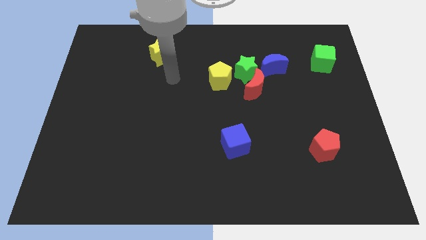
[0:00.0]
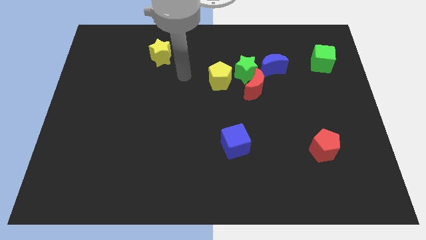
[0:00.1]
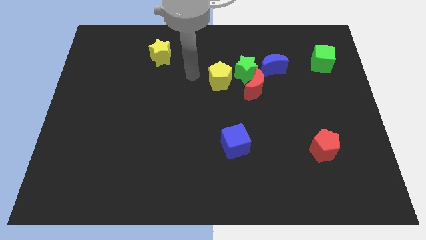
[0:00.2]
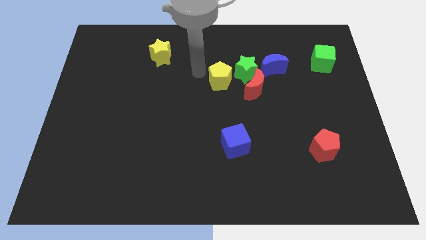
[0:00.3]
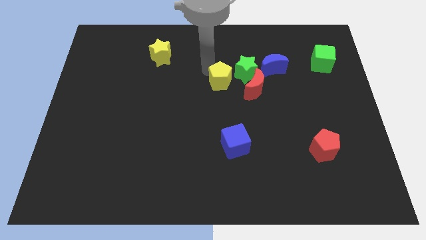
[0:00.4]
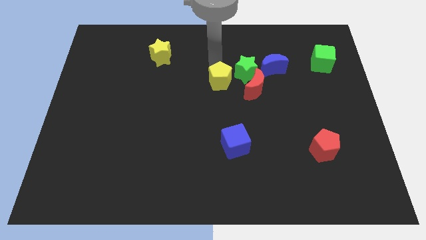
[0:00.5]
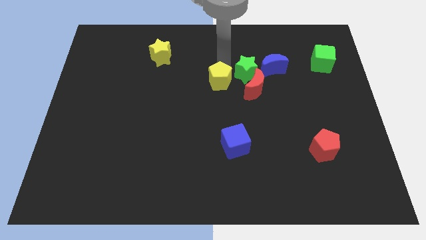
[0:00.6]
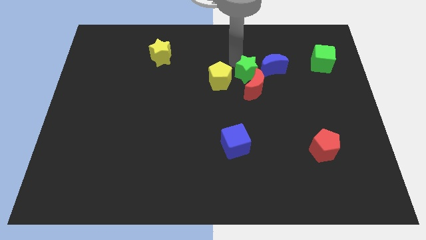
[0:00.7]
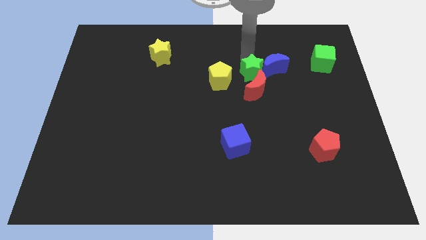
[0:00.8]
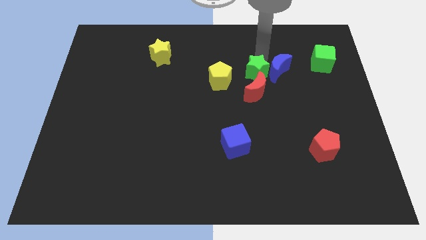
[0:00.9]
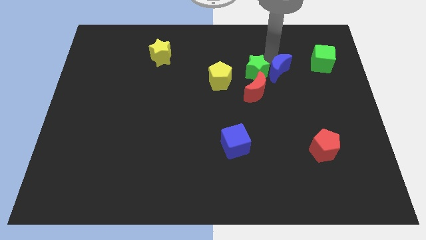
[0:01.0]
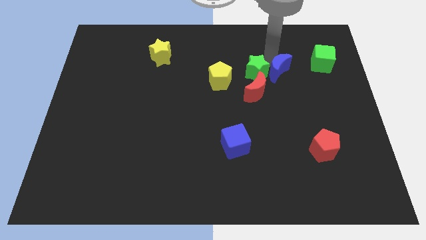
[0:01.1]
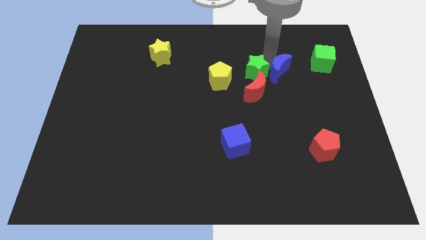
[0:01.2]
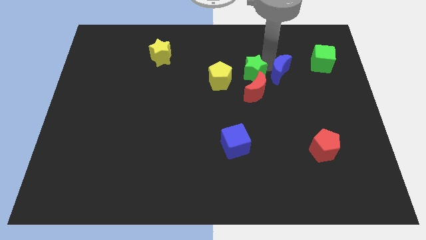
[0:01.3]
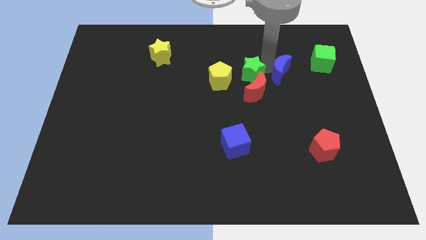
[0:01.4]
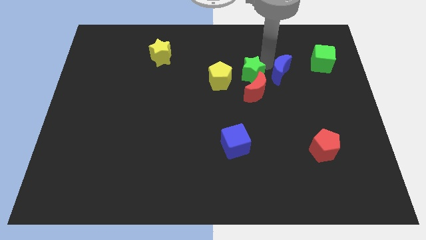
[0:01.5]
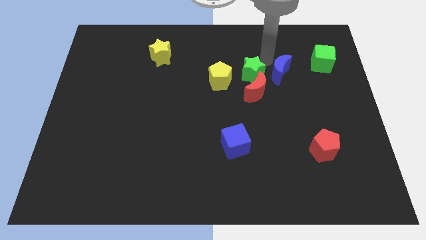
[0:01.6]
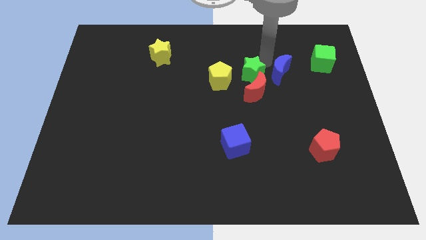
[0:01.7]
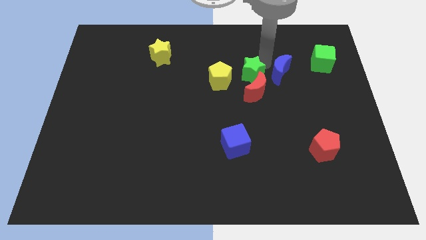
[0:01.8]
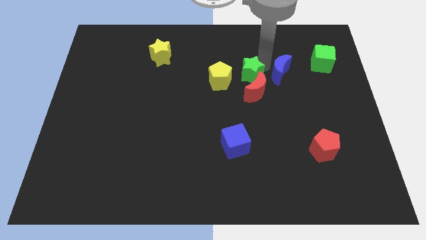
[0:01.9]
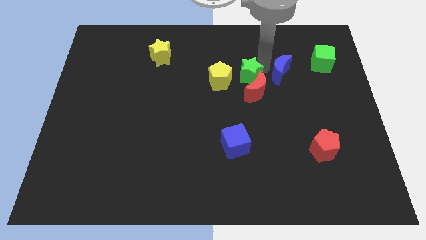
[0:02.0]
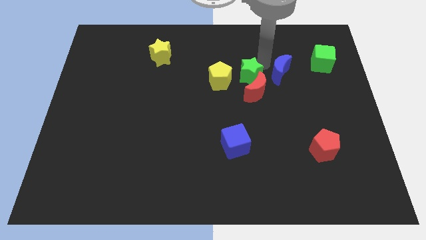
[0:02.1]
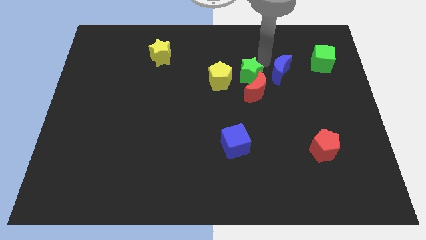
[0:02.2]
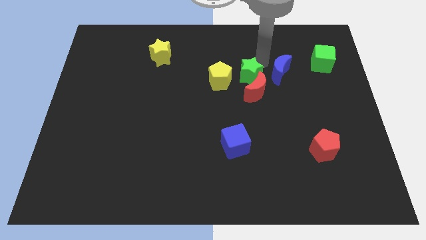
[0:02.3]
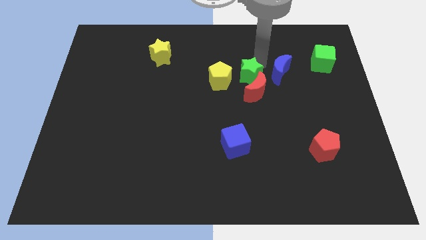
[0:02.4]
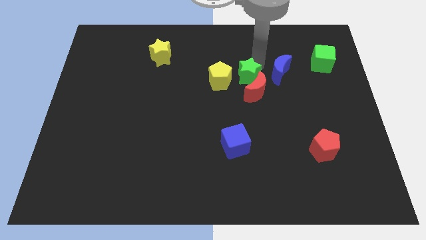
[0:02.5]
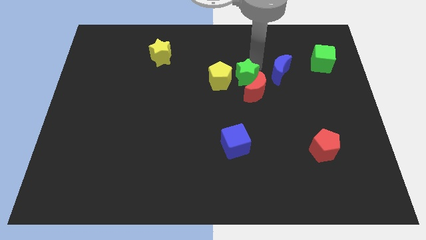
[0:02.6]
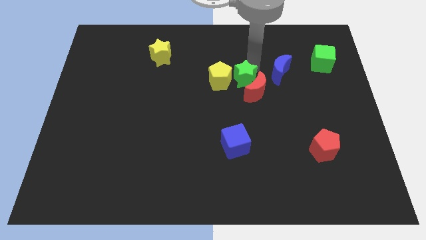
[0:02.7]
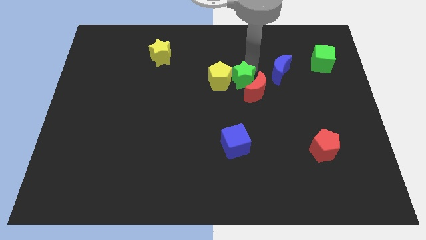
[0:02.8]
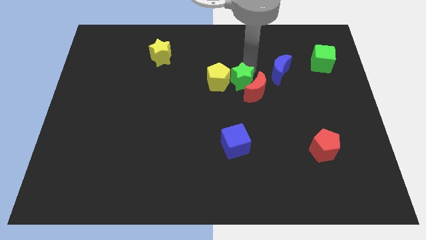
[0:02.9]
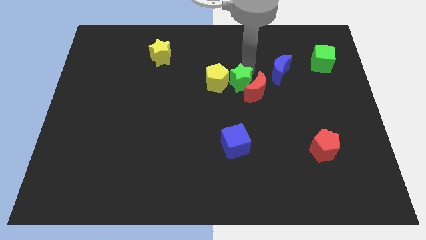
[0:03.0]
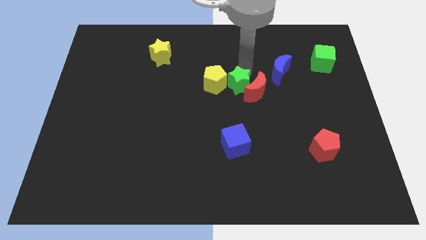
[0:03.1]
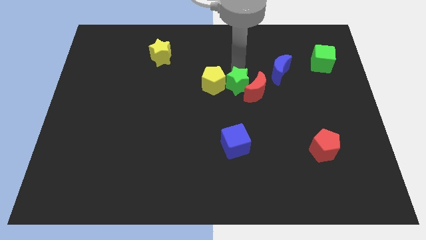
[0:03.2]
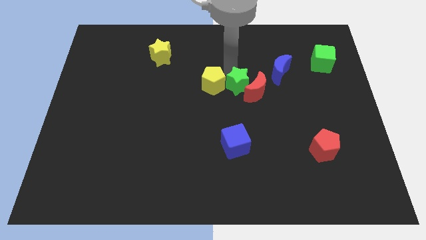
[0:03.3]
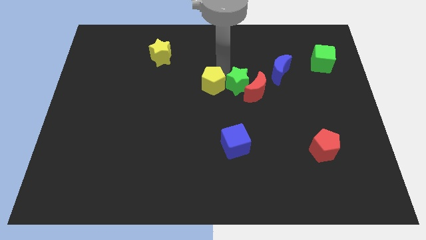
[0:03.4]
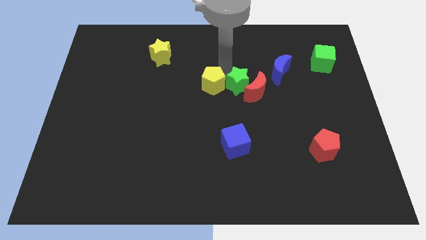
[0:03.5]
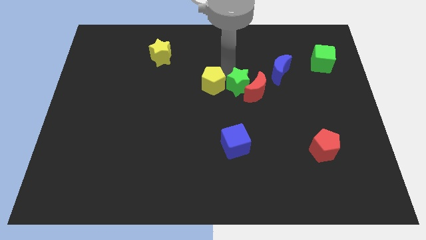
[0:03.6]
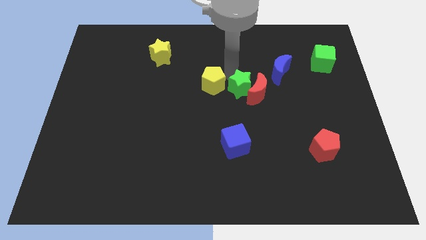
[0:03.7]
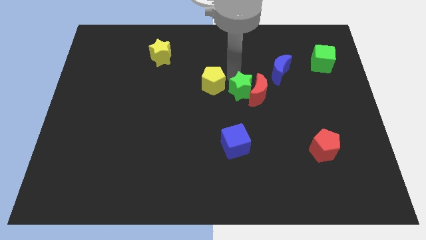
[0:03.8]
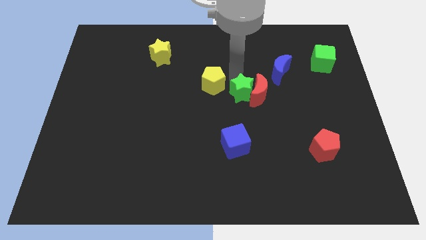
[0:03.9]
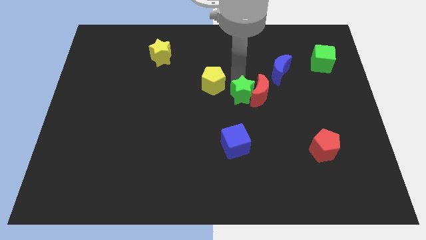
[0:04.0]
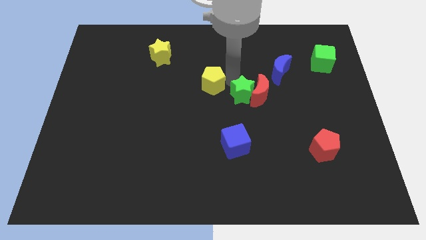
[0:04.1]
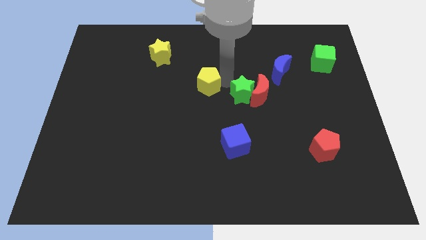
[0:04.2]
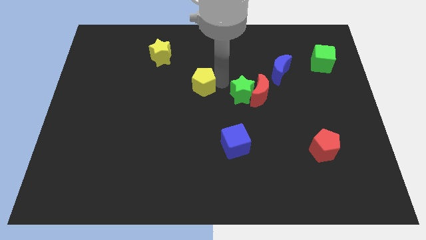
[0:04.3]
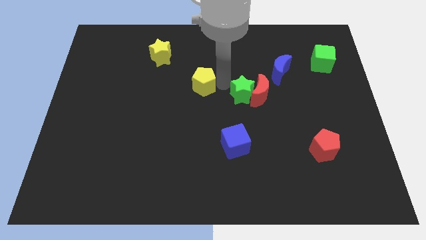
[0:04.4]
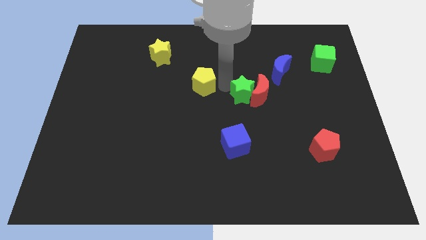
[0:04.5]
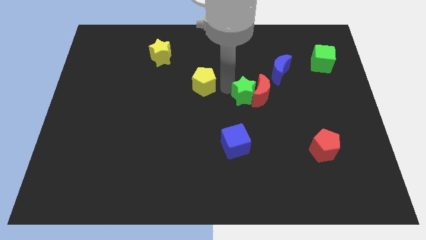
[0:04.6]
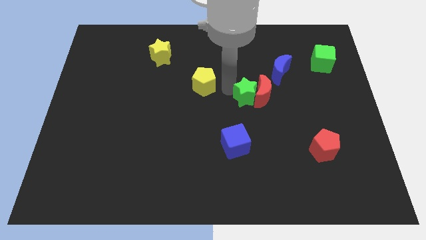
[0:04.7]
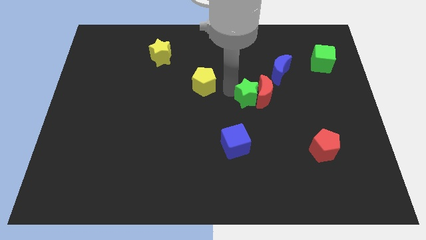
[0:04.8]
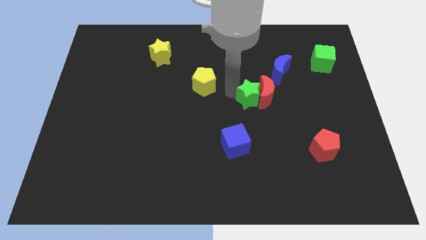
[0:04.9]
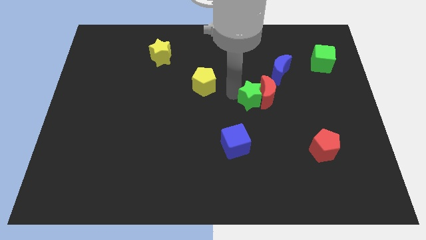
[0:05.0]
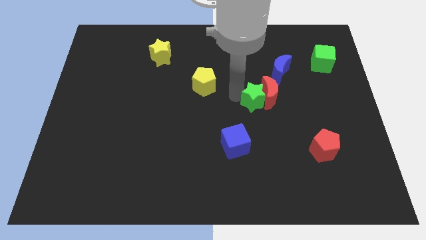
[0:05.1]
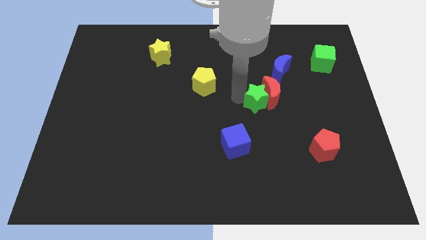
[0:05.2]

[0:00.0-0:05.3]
slide the green star a little bit down and to the right diagonally

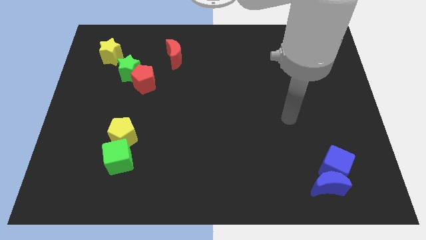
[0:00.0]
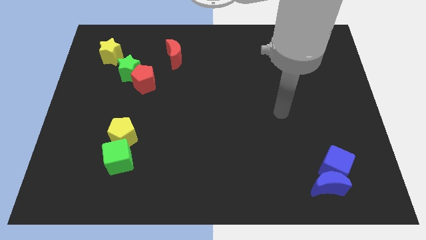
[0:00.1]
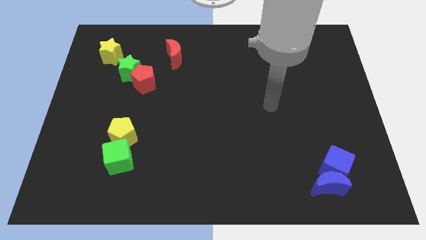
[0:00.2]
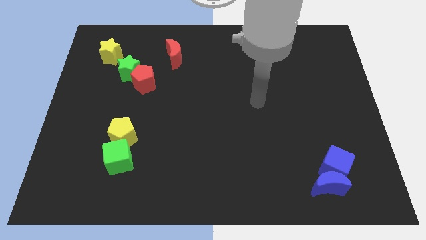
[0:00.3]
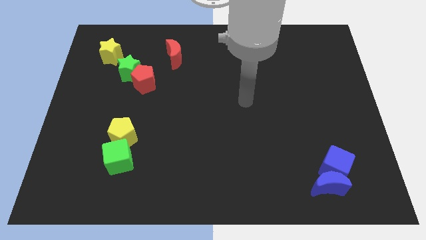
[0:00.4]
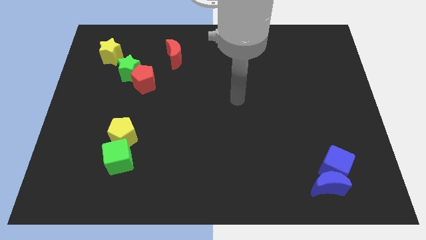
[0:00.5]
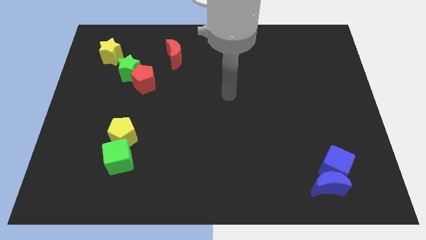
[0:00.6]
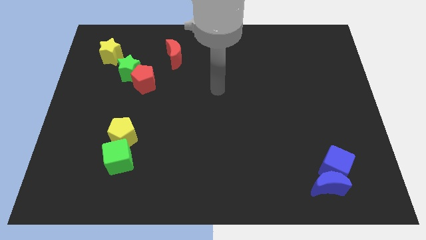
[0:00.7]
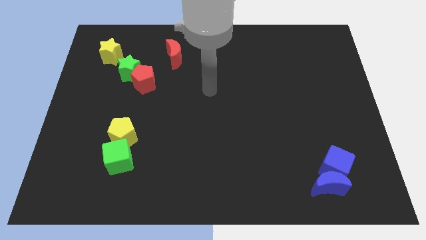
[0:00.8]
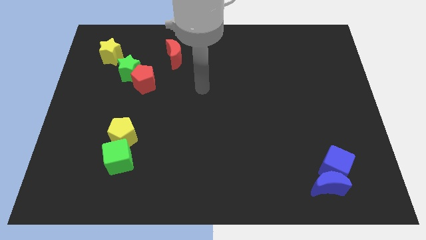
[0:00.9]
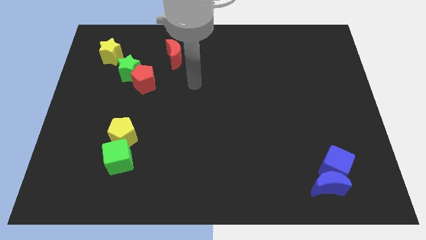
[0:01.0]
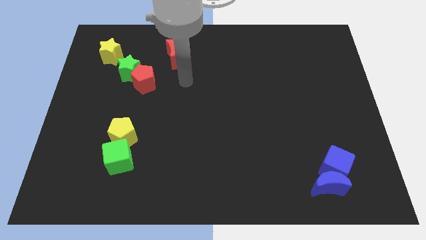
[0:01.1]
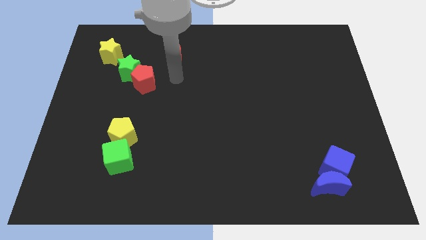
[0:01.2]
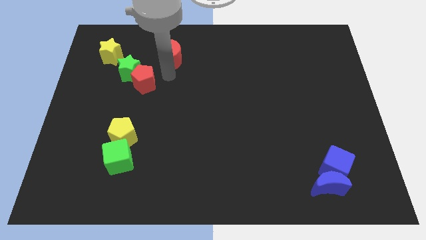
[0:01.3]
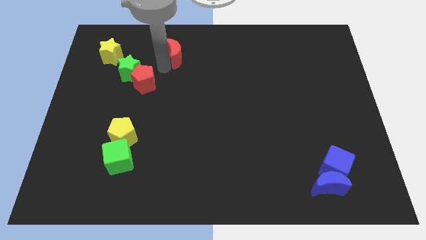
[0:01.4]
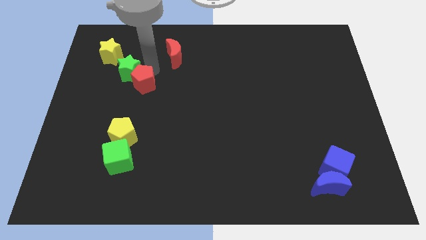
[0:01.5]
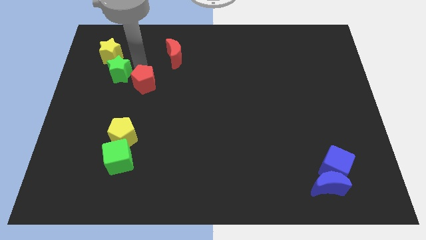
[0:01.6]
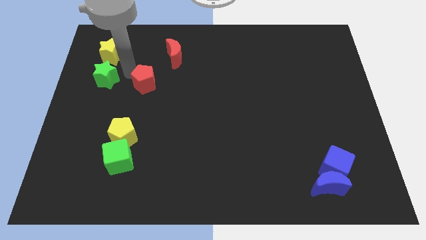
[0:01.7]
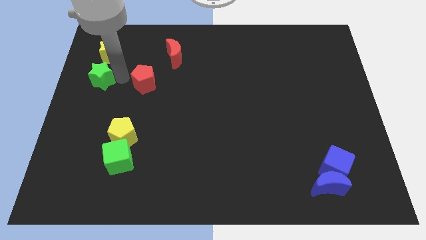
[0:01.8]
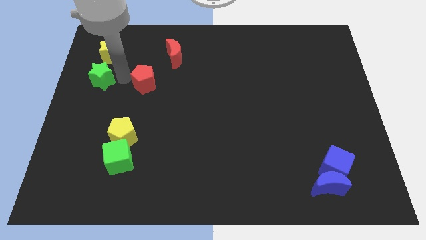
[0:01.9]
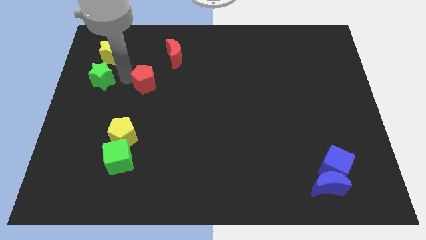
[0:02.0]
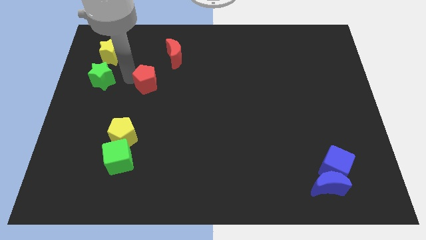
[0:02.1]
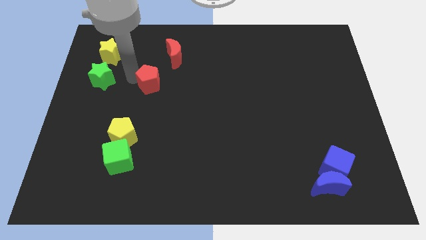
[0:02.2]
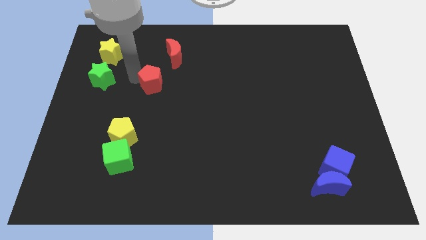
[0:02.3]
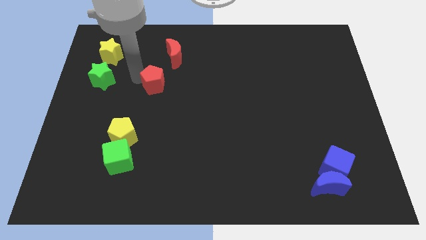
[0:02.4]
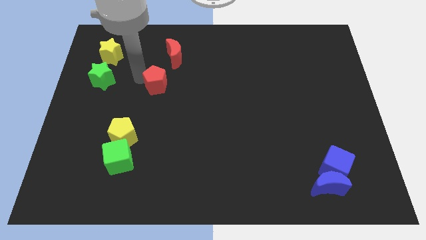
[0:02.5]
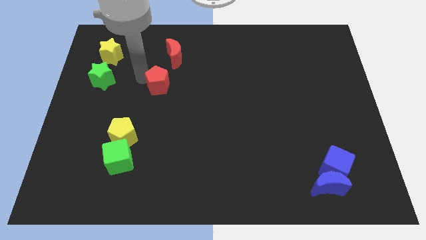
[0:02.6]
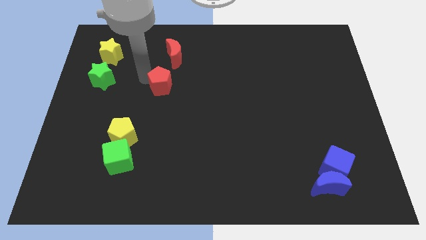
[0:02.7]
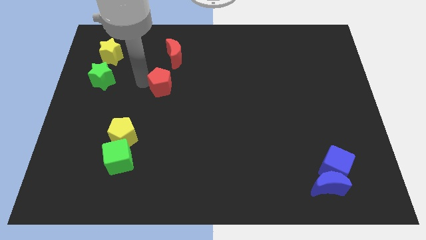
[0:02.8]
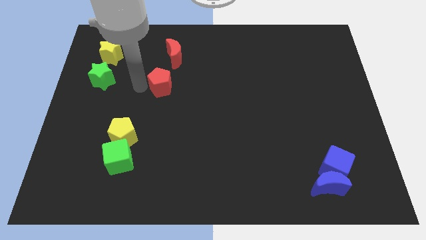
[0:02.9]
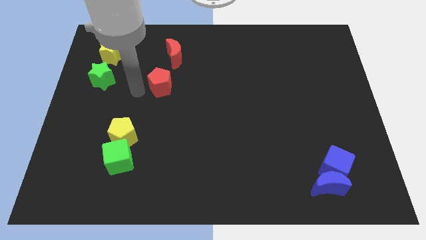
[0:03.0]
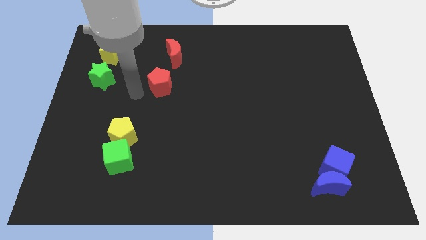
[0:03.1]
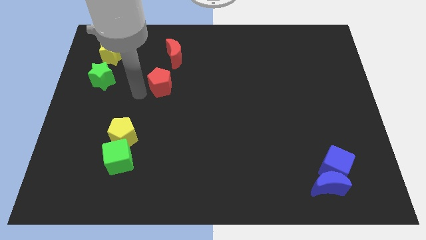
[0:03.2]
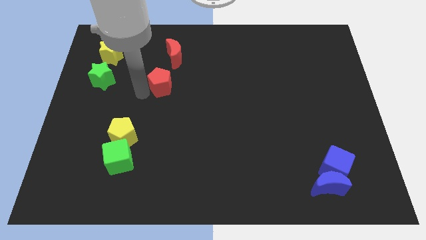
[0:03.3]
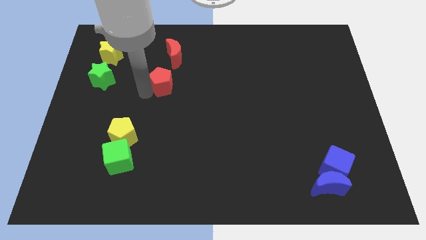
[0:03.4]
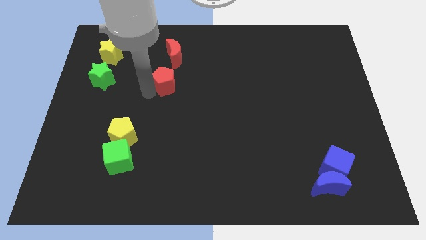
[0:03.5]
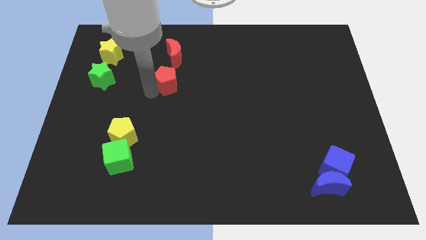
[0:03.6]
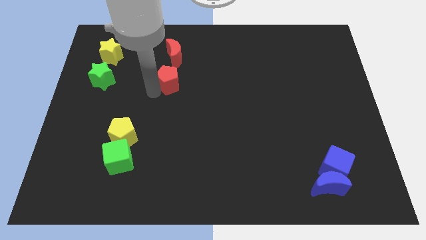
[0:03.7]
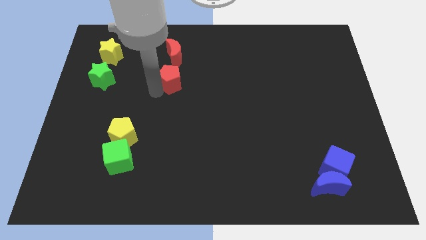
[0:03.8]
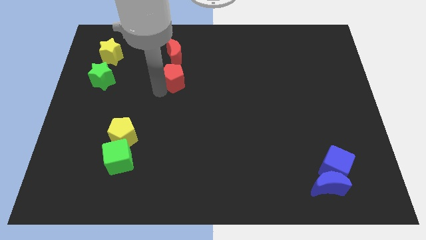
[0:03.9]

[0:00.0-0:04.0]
slightly push the red pentagon to the right
